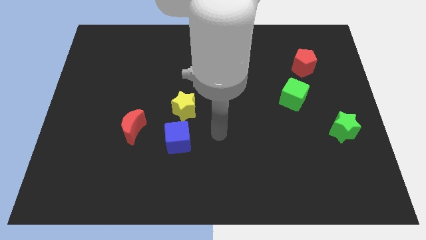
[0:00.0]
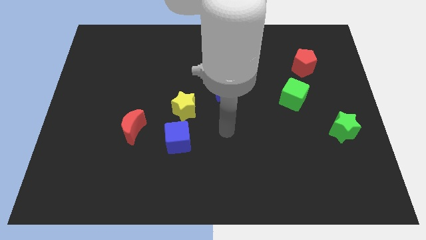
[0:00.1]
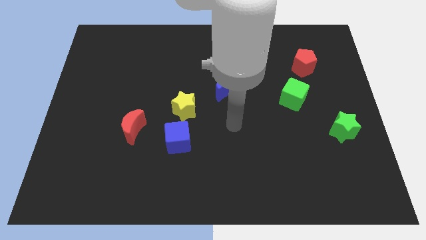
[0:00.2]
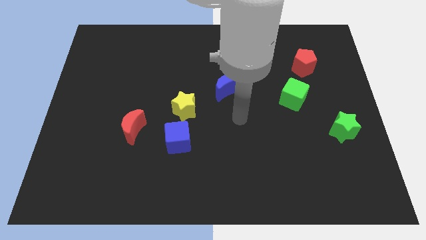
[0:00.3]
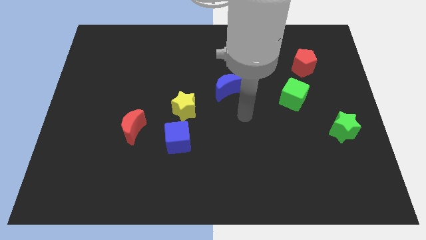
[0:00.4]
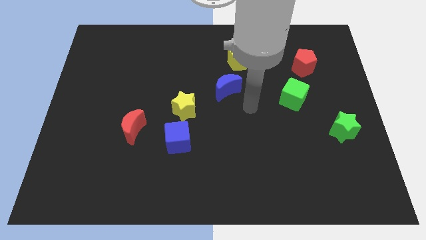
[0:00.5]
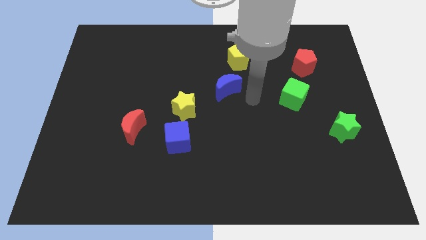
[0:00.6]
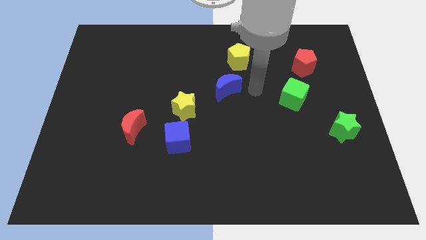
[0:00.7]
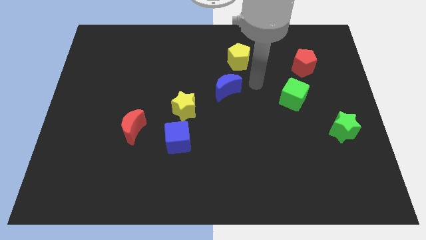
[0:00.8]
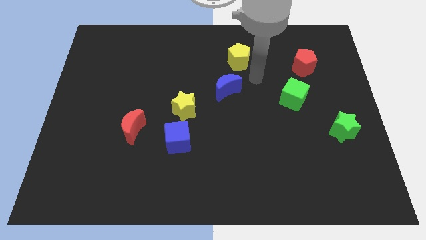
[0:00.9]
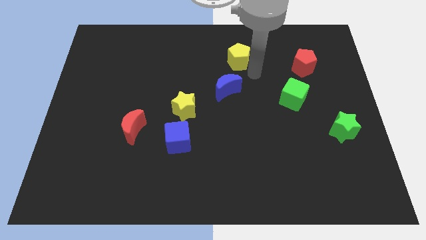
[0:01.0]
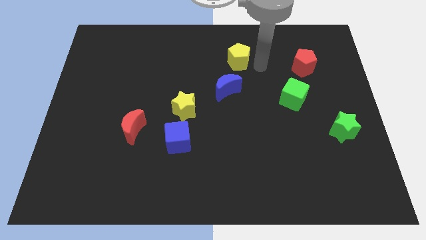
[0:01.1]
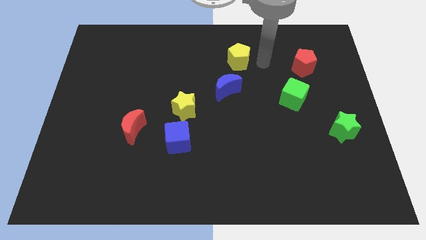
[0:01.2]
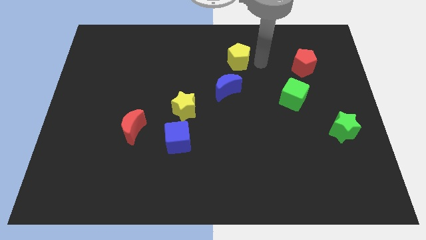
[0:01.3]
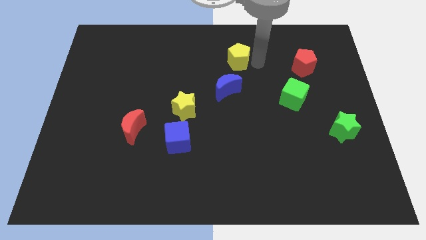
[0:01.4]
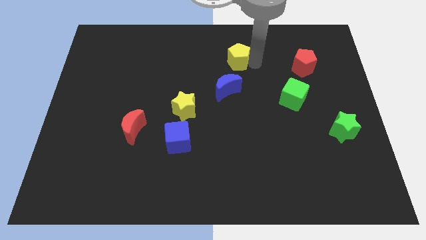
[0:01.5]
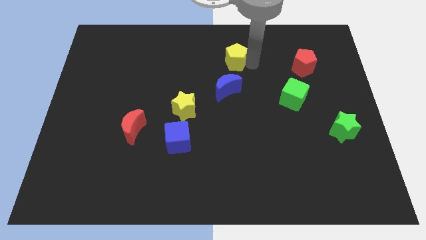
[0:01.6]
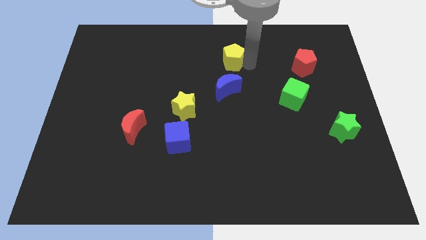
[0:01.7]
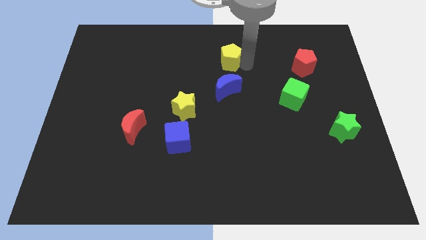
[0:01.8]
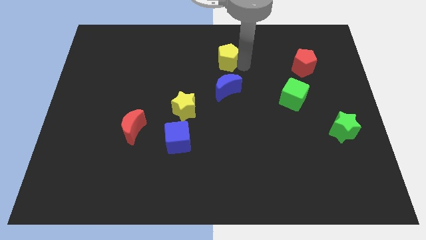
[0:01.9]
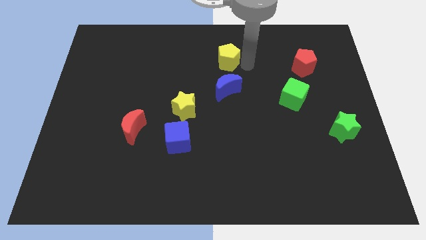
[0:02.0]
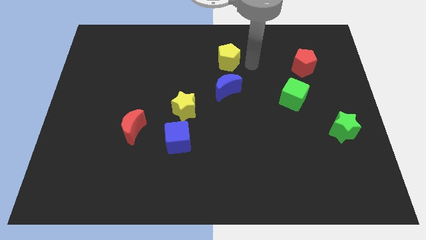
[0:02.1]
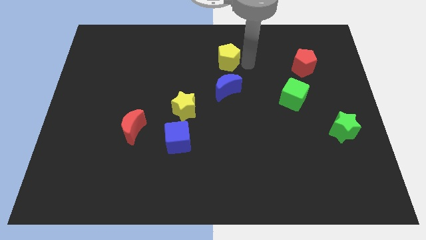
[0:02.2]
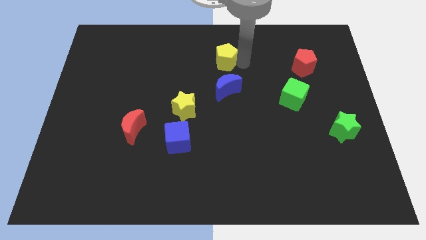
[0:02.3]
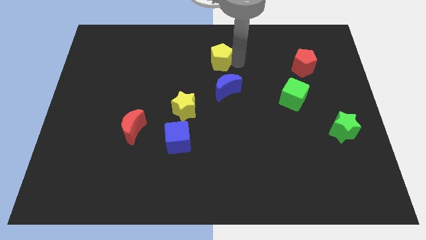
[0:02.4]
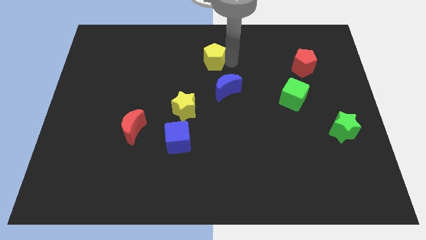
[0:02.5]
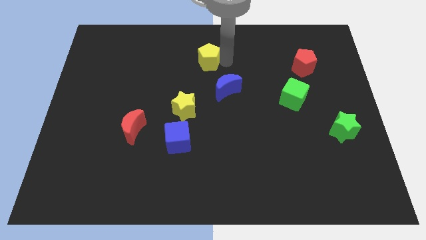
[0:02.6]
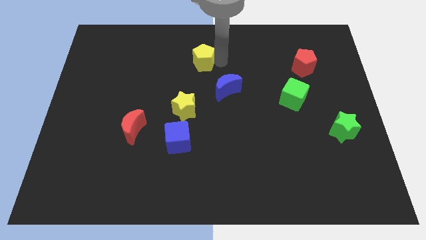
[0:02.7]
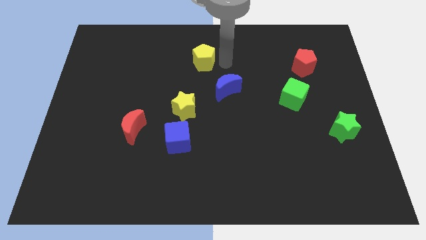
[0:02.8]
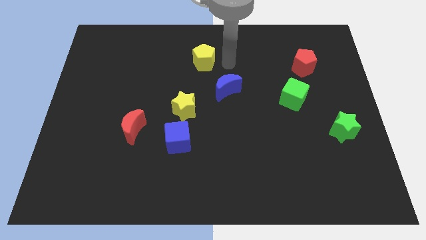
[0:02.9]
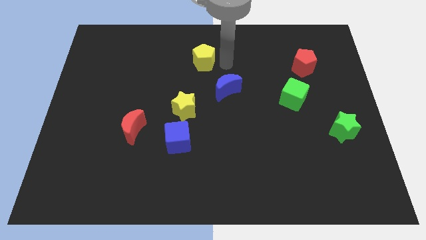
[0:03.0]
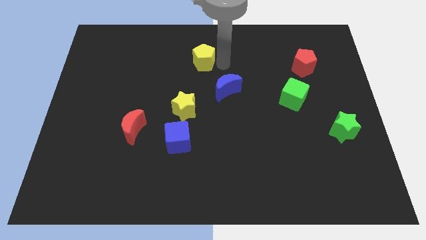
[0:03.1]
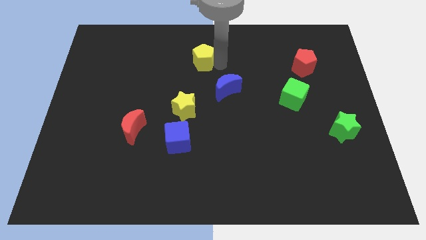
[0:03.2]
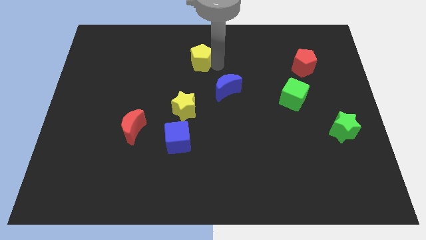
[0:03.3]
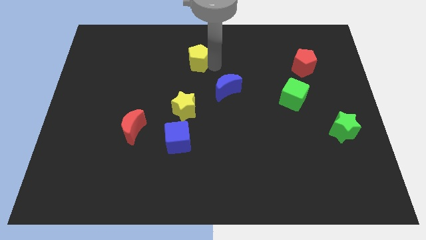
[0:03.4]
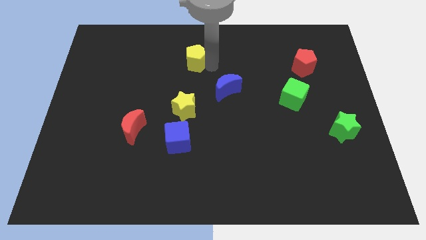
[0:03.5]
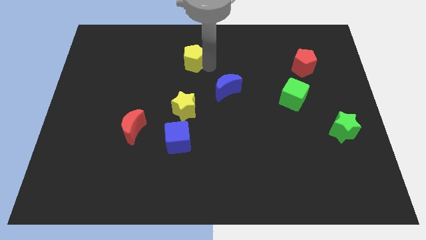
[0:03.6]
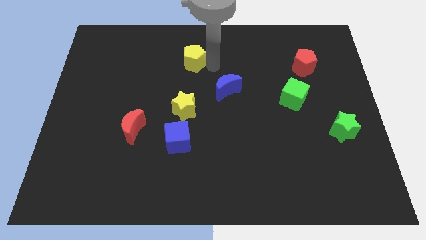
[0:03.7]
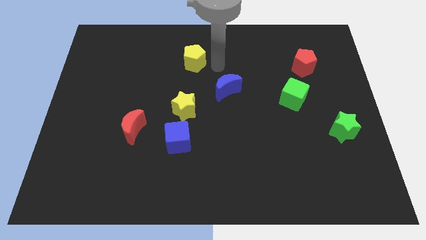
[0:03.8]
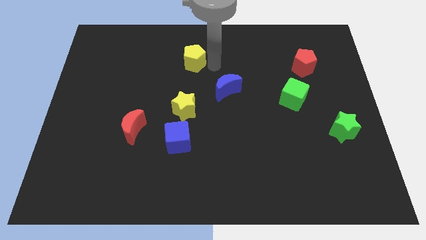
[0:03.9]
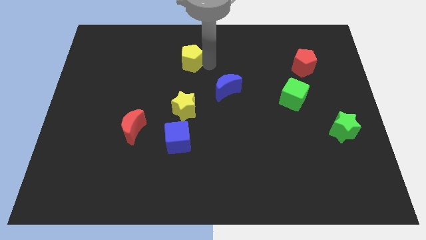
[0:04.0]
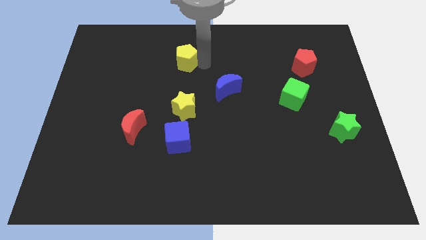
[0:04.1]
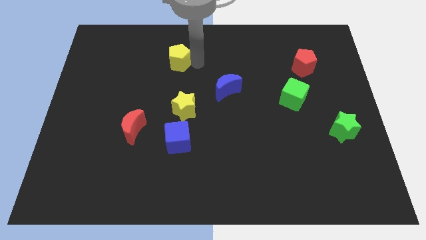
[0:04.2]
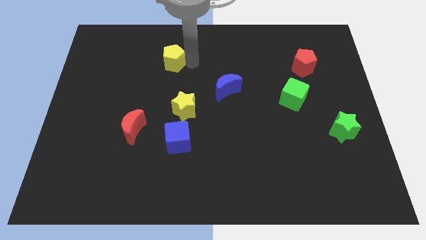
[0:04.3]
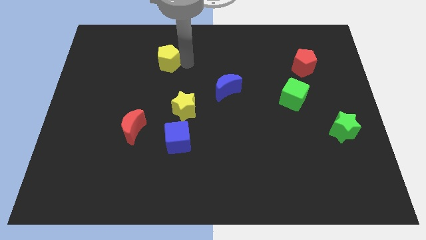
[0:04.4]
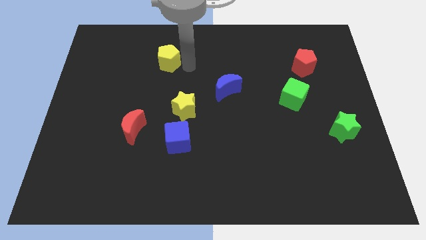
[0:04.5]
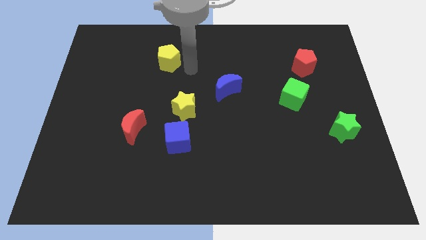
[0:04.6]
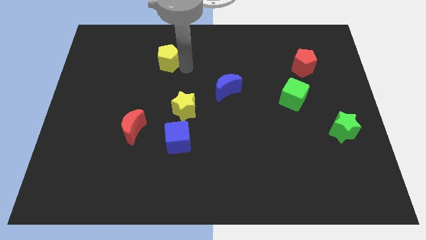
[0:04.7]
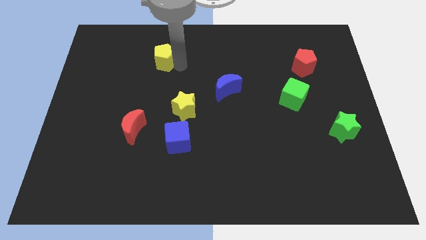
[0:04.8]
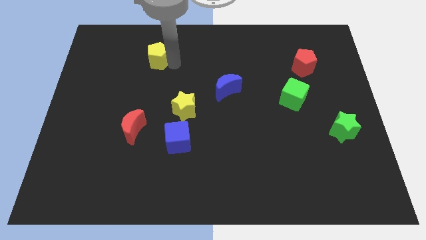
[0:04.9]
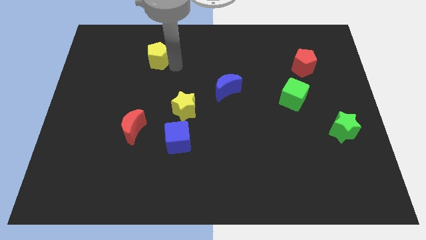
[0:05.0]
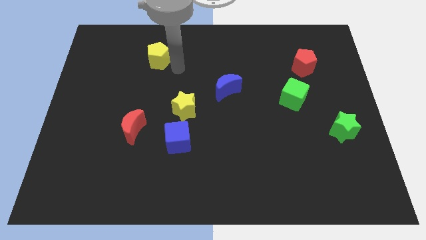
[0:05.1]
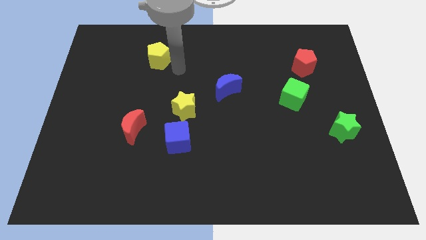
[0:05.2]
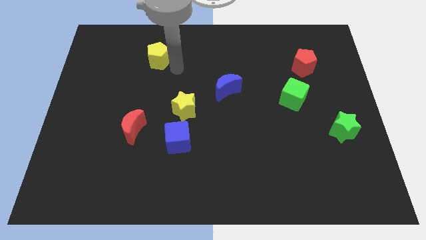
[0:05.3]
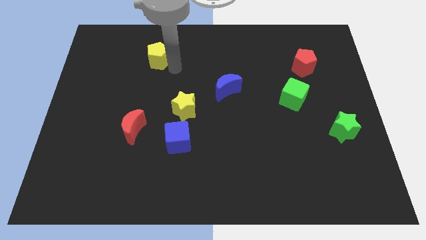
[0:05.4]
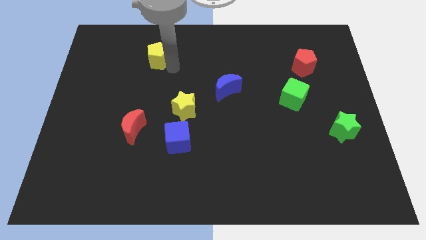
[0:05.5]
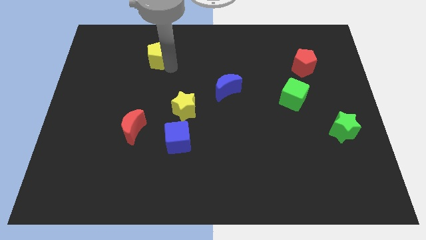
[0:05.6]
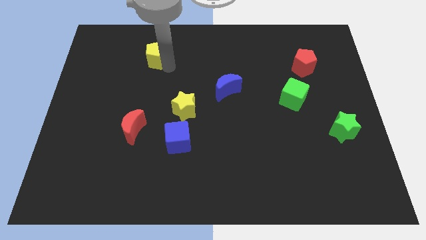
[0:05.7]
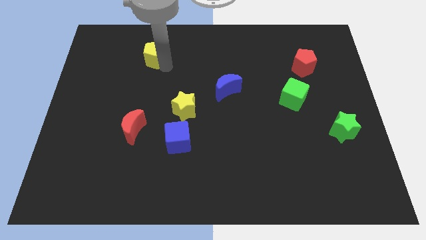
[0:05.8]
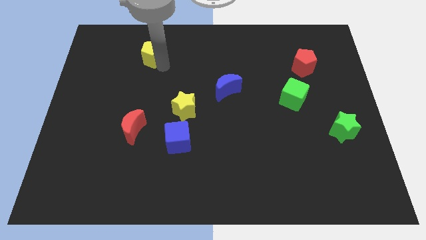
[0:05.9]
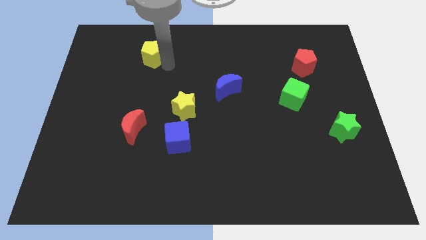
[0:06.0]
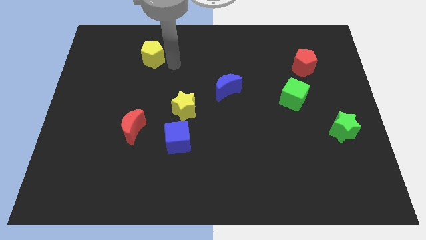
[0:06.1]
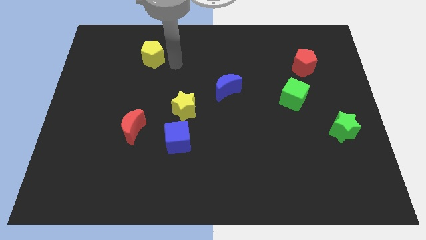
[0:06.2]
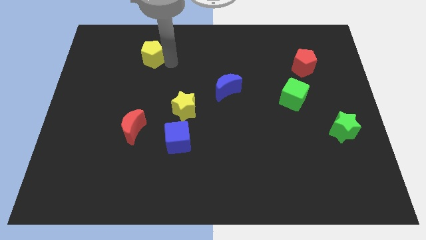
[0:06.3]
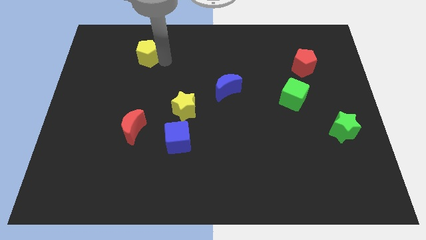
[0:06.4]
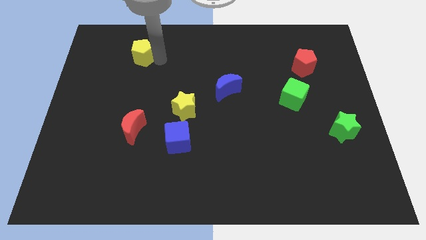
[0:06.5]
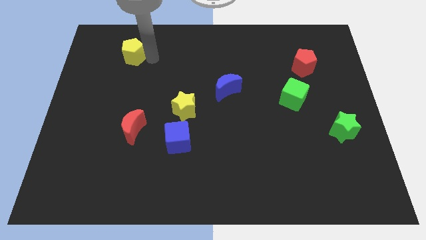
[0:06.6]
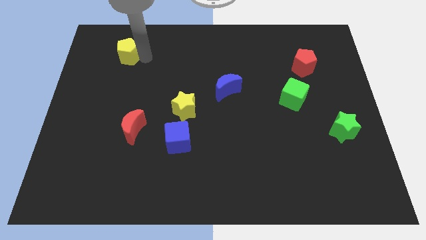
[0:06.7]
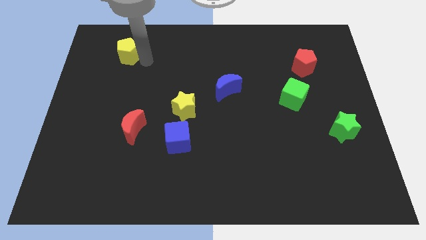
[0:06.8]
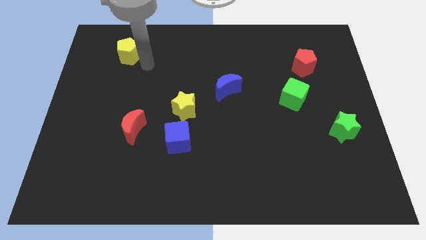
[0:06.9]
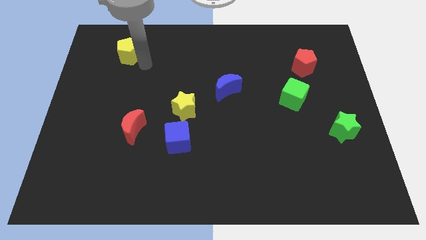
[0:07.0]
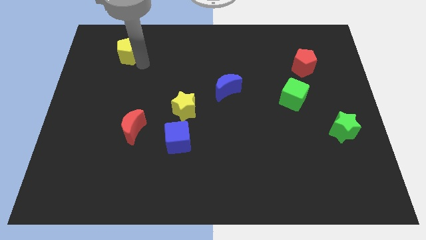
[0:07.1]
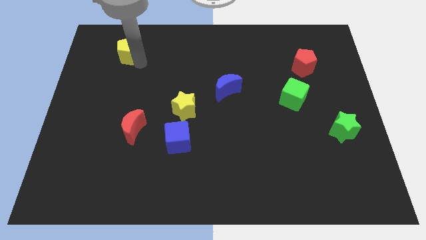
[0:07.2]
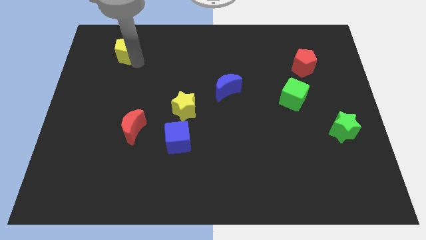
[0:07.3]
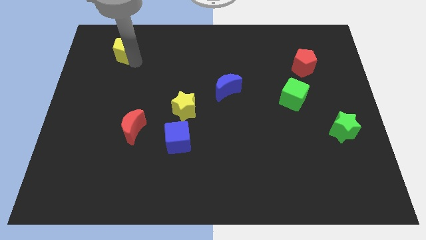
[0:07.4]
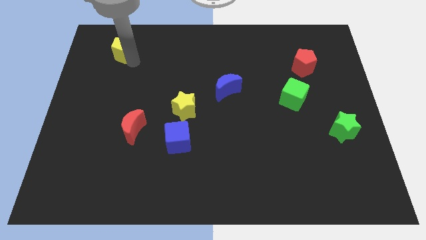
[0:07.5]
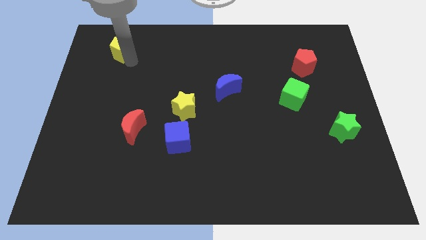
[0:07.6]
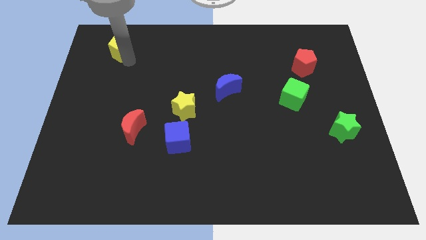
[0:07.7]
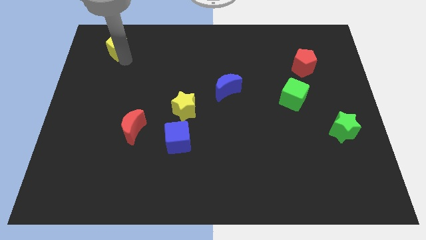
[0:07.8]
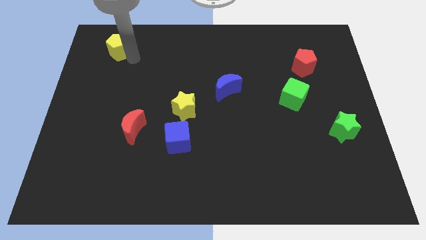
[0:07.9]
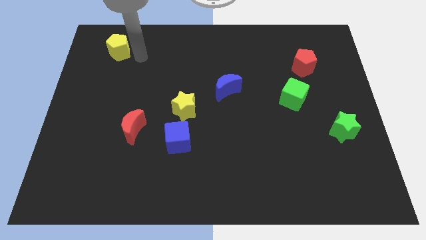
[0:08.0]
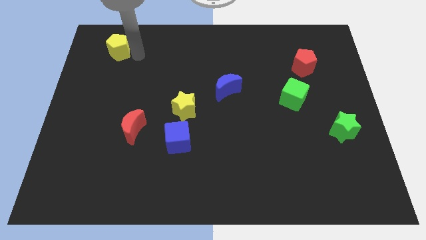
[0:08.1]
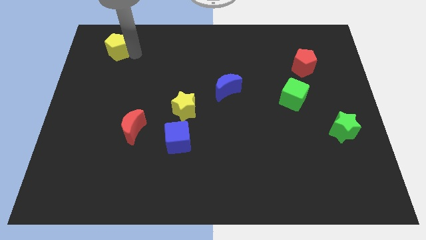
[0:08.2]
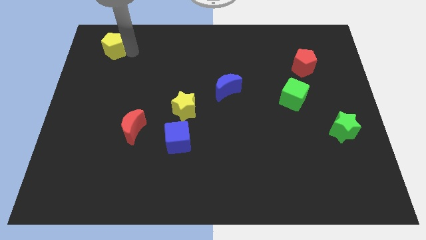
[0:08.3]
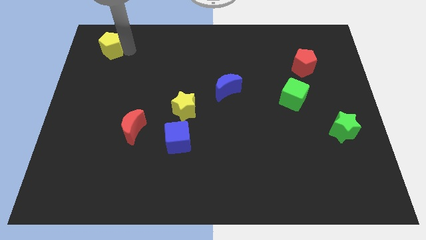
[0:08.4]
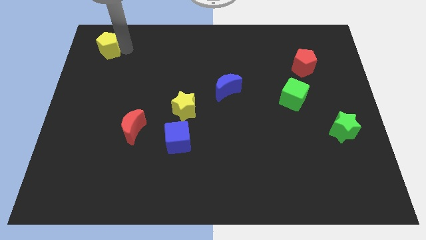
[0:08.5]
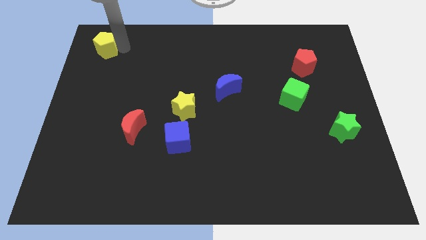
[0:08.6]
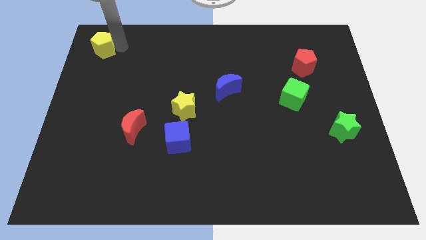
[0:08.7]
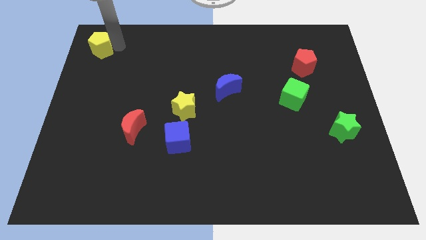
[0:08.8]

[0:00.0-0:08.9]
push the yellow pentagon to the top left corner
